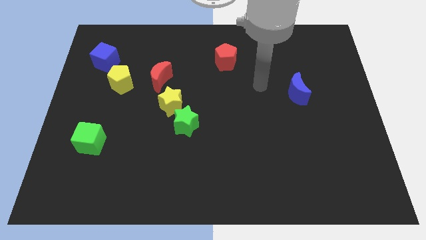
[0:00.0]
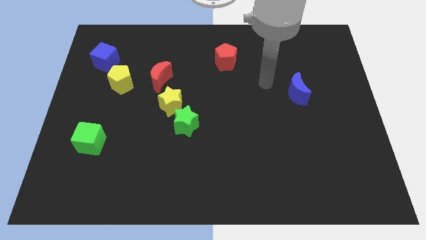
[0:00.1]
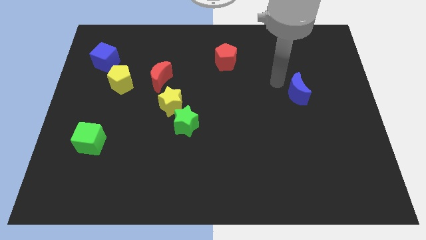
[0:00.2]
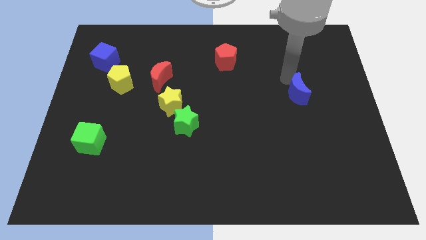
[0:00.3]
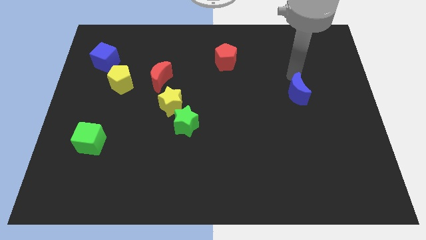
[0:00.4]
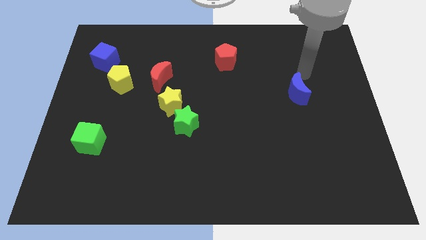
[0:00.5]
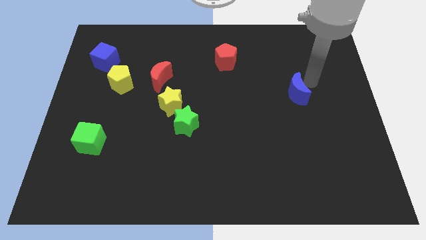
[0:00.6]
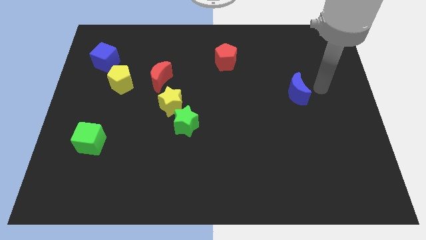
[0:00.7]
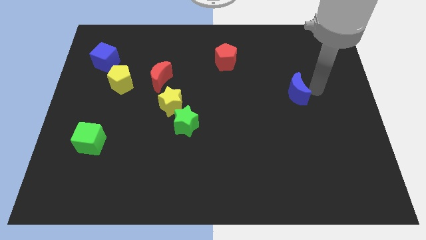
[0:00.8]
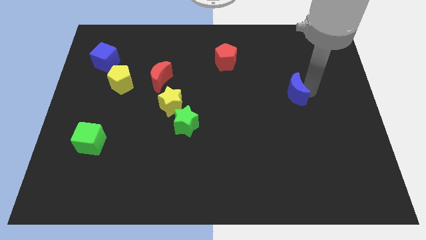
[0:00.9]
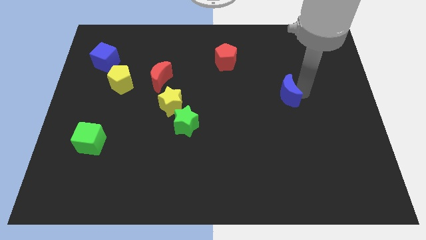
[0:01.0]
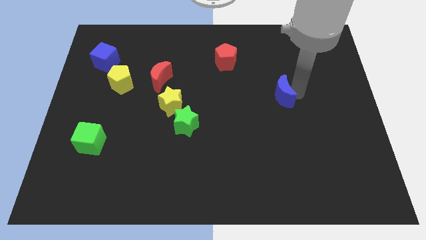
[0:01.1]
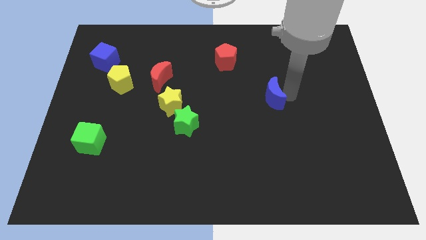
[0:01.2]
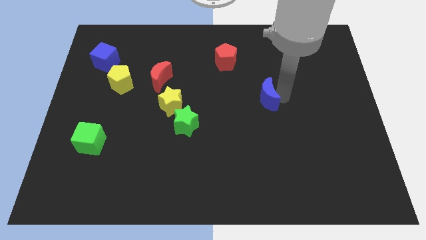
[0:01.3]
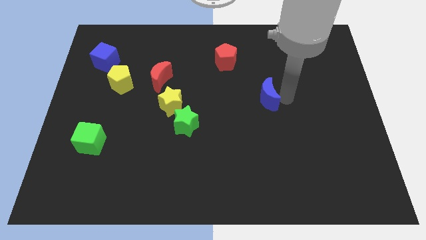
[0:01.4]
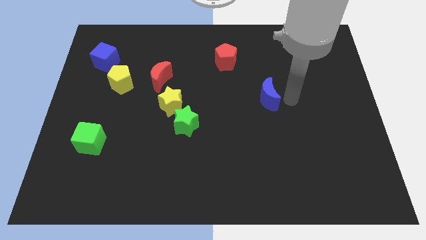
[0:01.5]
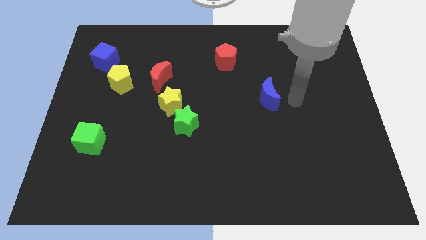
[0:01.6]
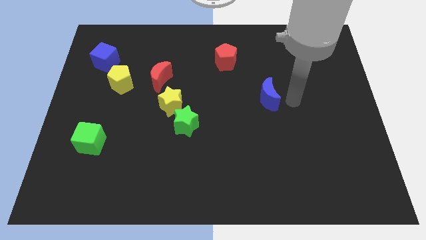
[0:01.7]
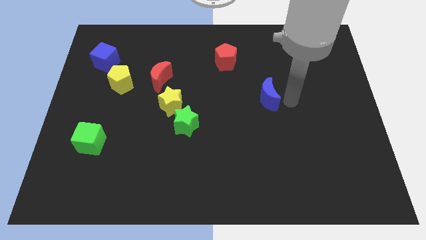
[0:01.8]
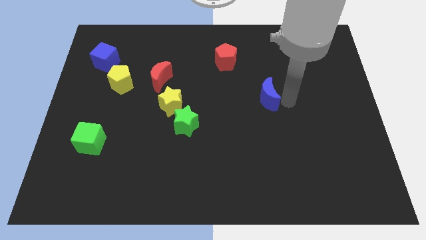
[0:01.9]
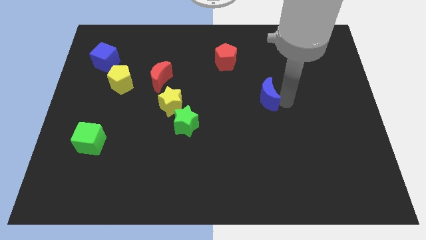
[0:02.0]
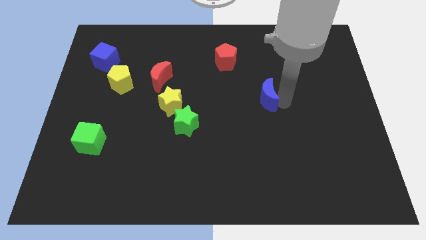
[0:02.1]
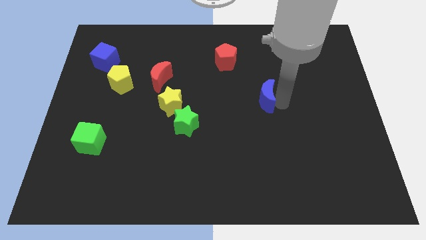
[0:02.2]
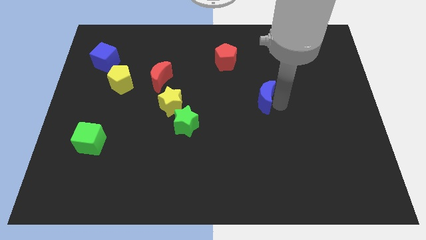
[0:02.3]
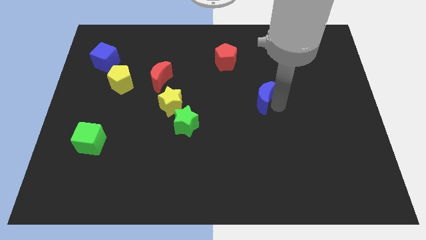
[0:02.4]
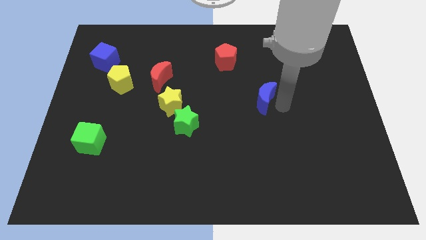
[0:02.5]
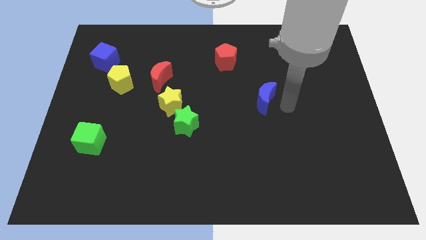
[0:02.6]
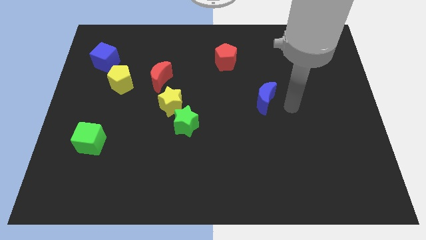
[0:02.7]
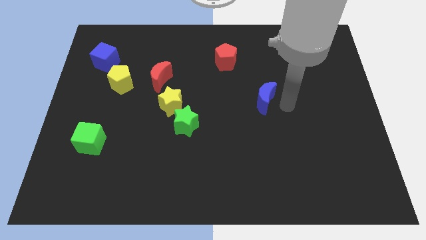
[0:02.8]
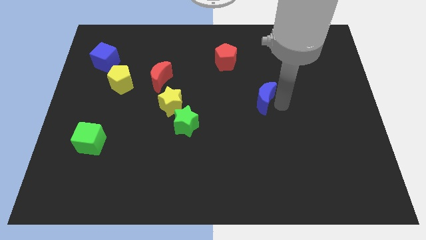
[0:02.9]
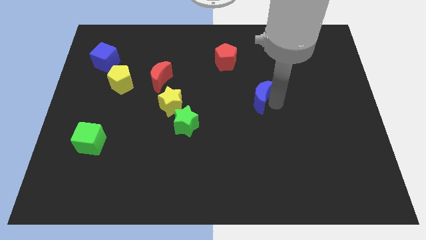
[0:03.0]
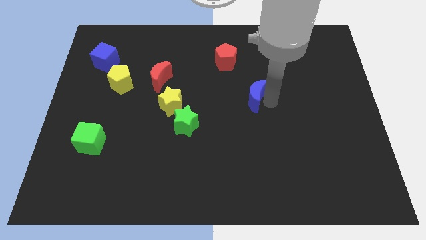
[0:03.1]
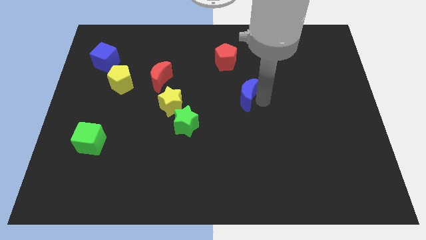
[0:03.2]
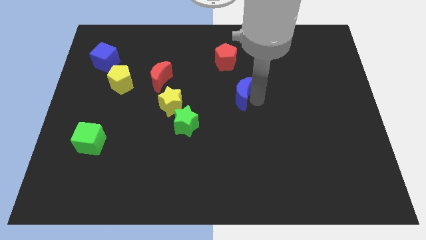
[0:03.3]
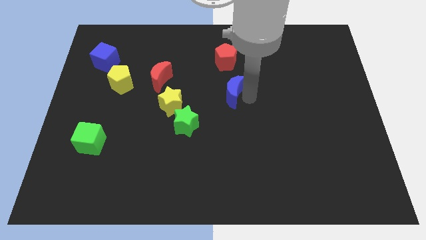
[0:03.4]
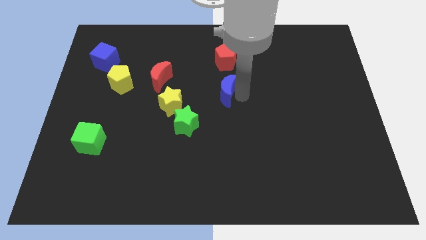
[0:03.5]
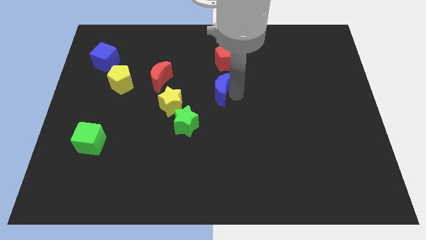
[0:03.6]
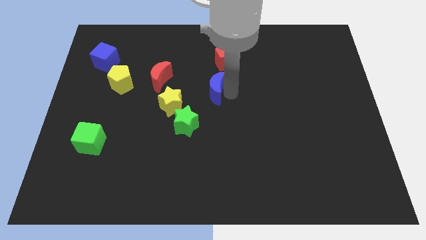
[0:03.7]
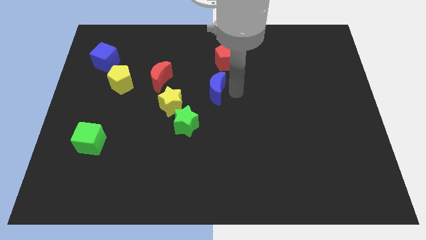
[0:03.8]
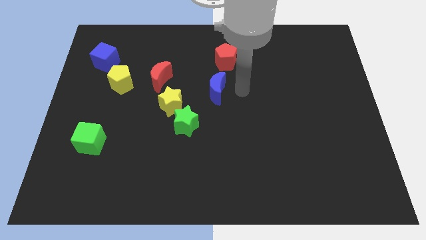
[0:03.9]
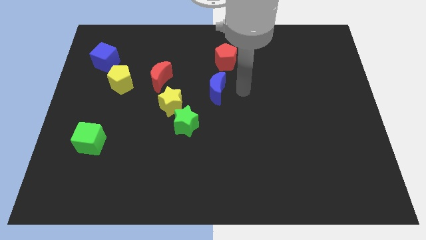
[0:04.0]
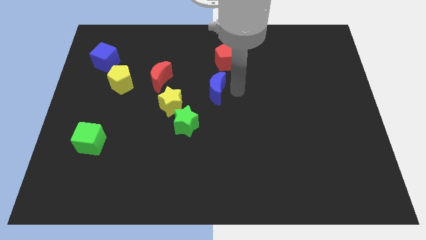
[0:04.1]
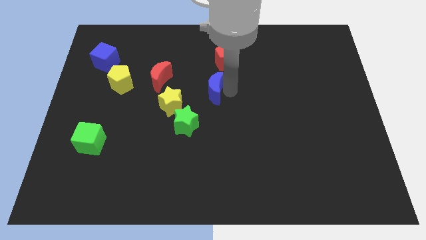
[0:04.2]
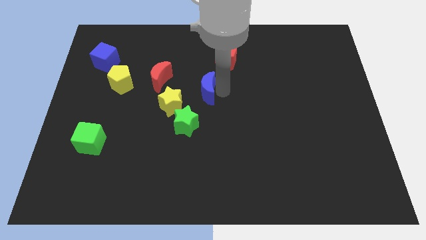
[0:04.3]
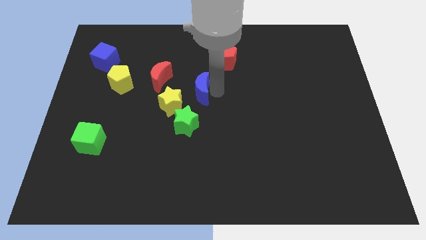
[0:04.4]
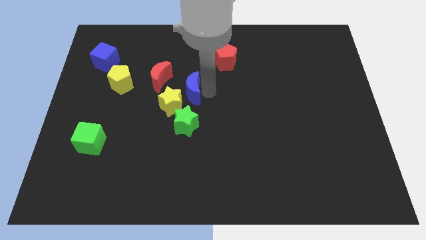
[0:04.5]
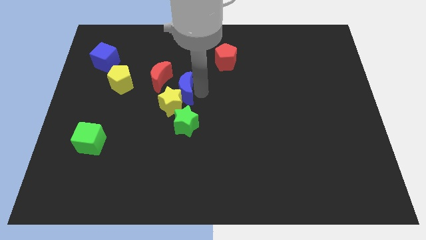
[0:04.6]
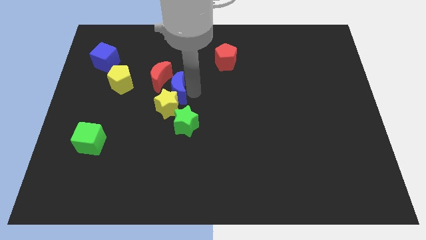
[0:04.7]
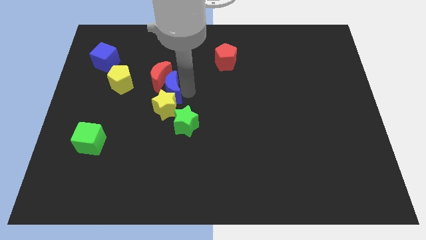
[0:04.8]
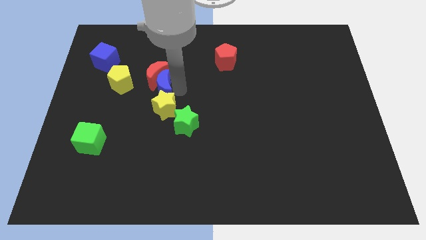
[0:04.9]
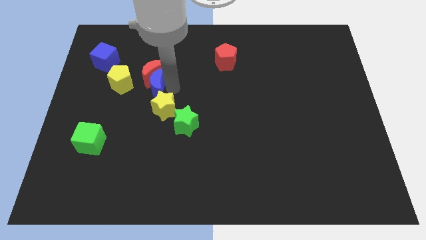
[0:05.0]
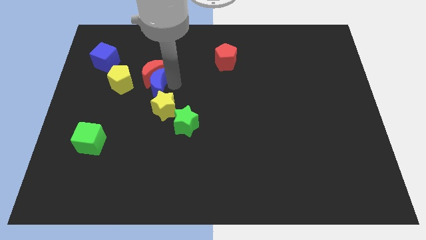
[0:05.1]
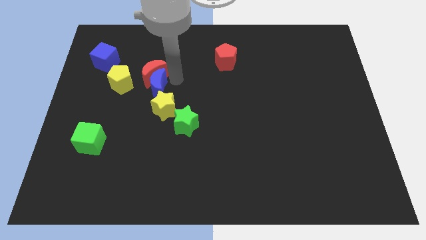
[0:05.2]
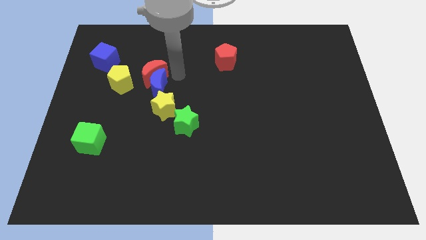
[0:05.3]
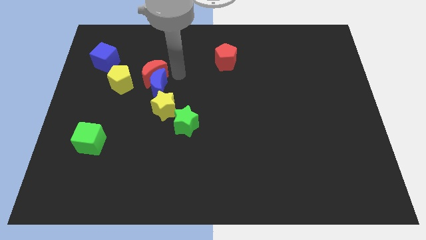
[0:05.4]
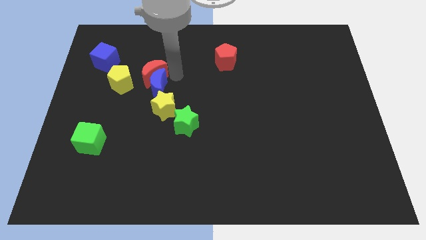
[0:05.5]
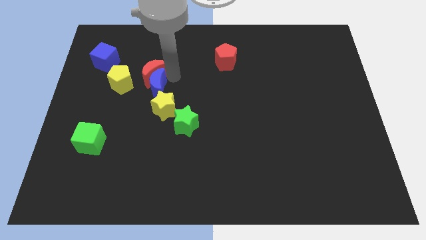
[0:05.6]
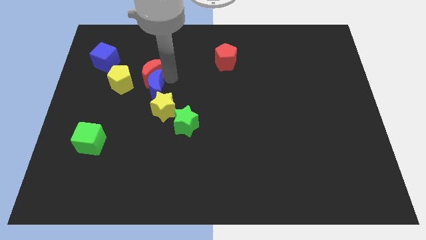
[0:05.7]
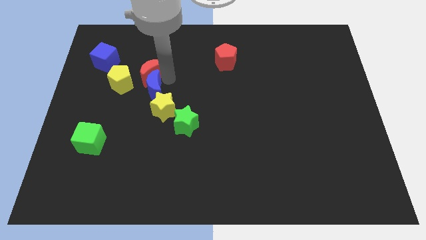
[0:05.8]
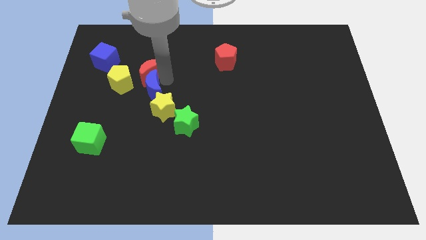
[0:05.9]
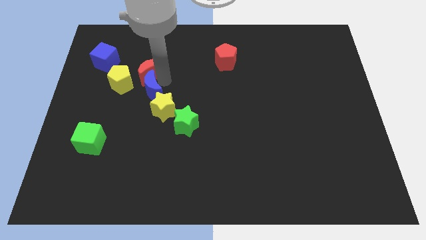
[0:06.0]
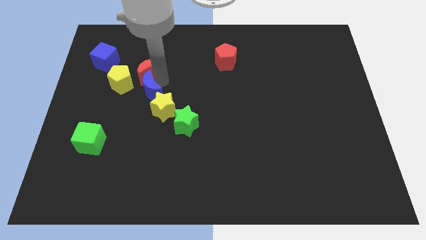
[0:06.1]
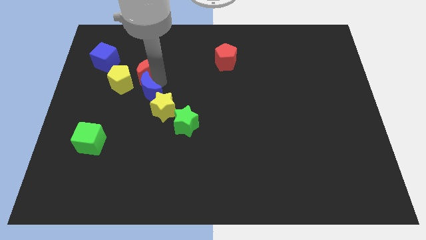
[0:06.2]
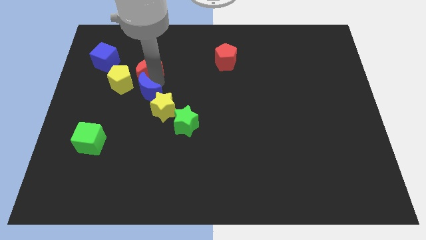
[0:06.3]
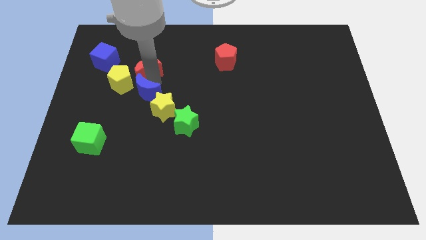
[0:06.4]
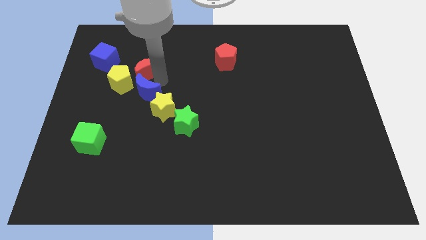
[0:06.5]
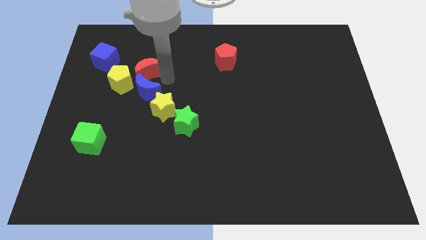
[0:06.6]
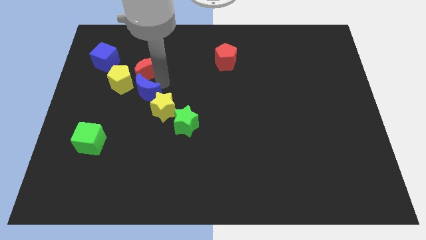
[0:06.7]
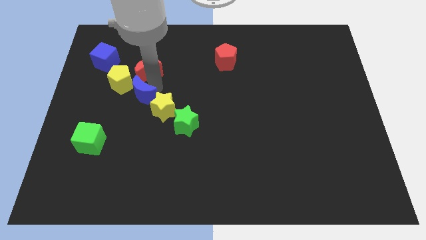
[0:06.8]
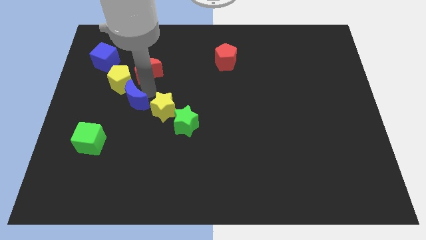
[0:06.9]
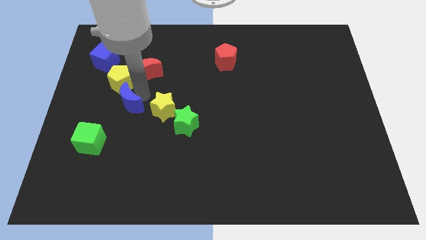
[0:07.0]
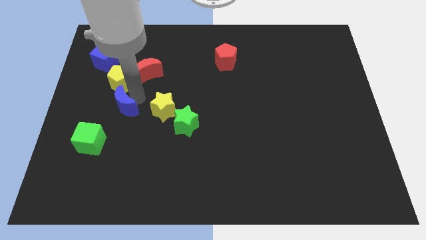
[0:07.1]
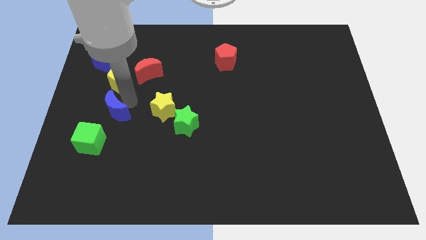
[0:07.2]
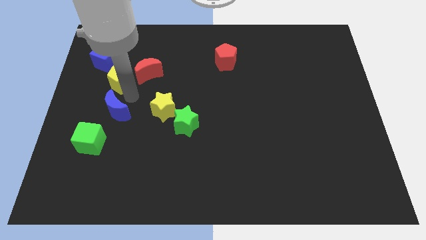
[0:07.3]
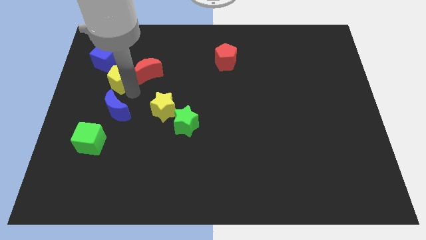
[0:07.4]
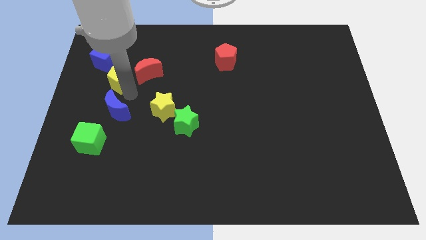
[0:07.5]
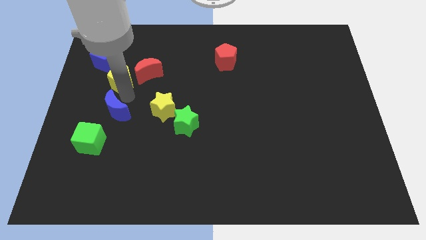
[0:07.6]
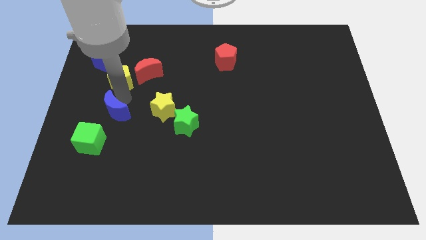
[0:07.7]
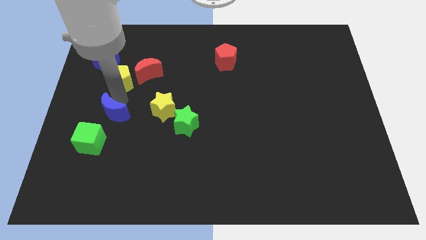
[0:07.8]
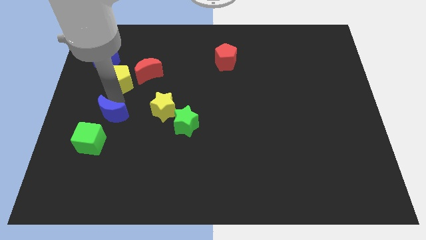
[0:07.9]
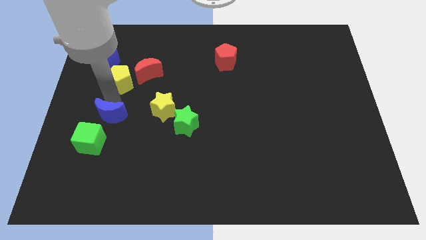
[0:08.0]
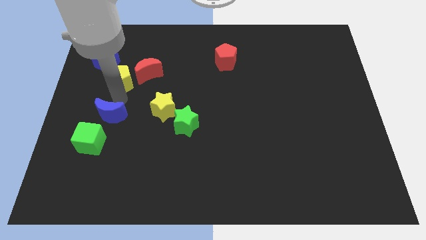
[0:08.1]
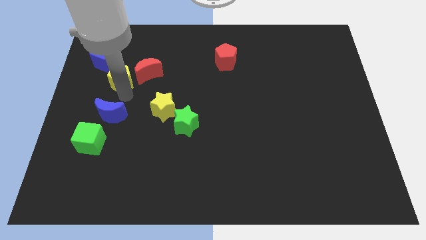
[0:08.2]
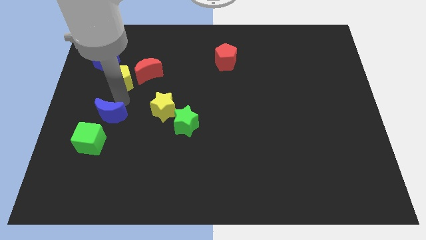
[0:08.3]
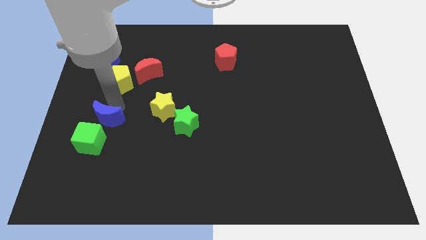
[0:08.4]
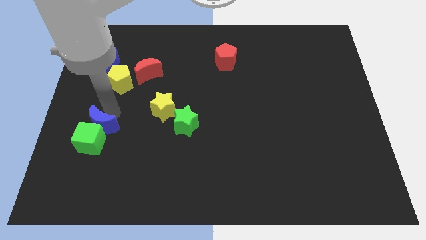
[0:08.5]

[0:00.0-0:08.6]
put the blue moon next to the green cube
